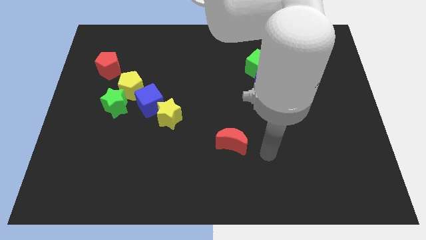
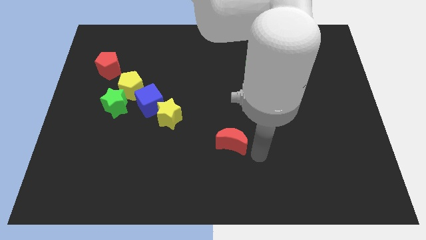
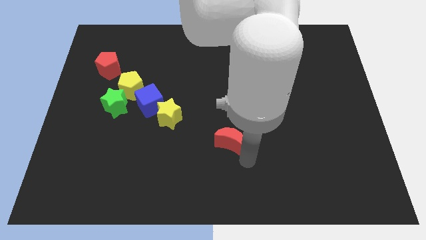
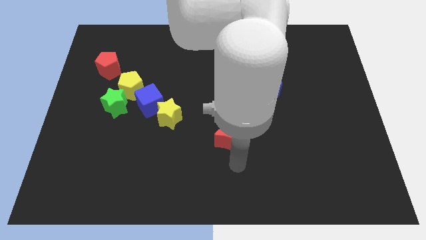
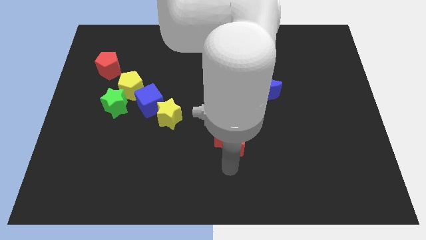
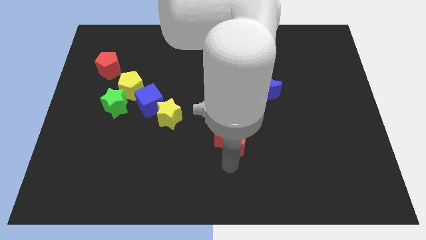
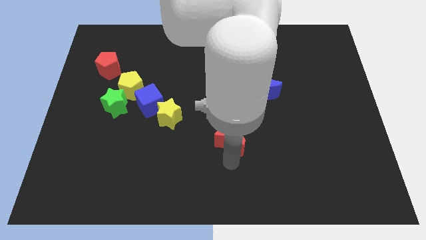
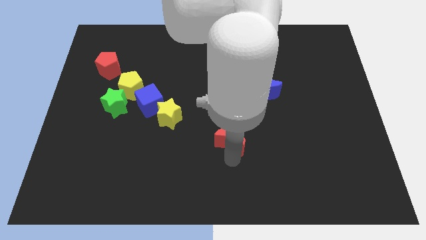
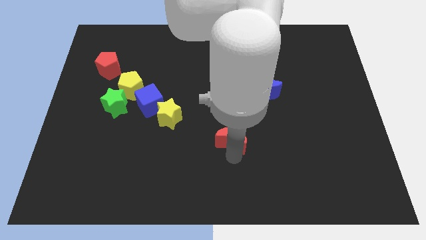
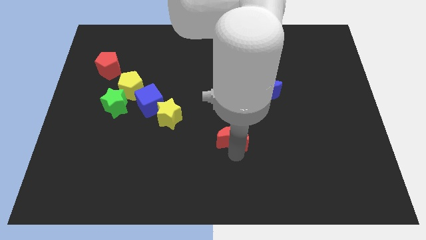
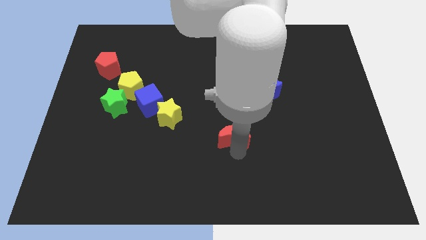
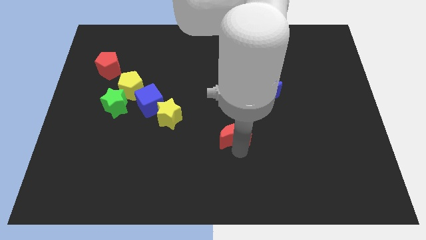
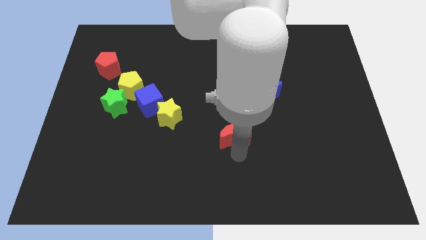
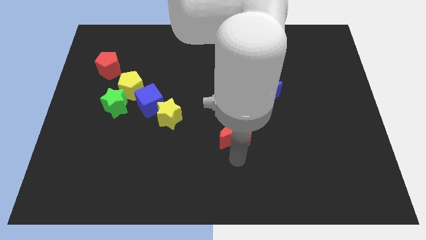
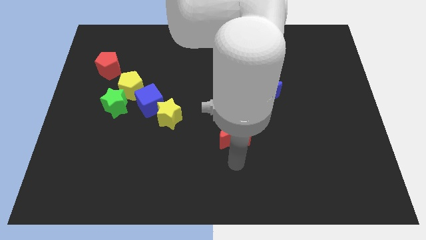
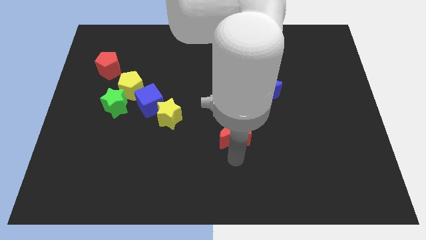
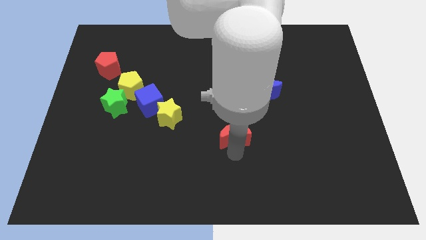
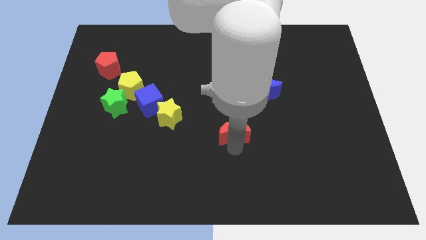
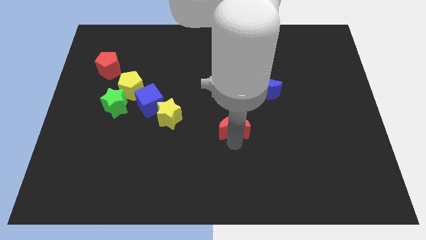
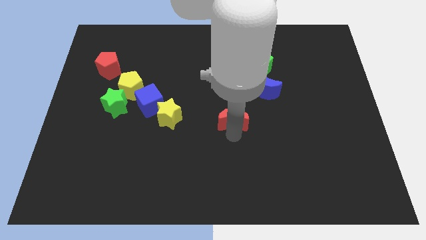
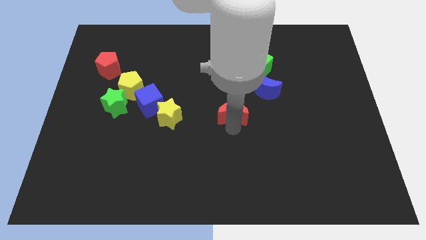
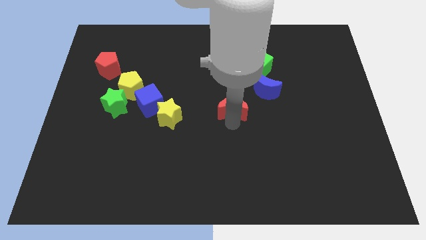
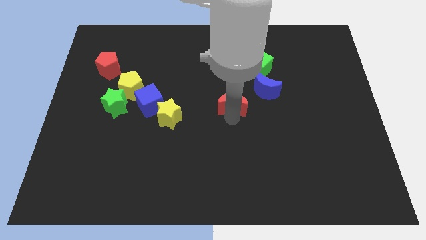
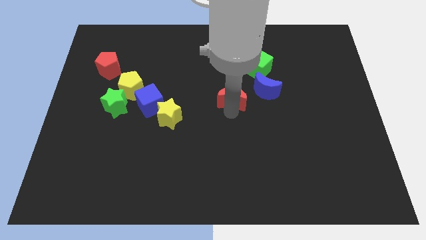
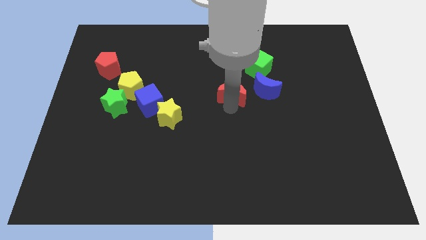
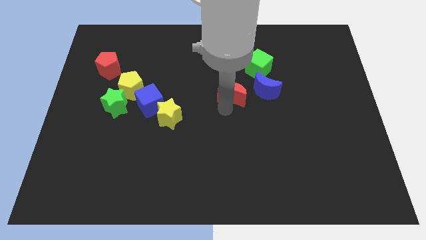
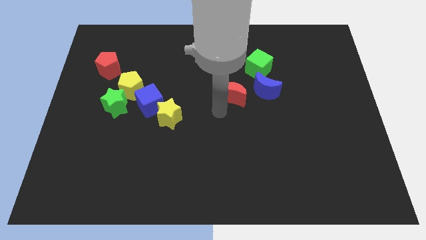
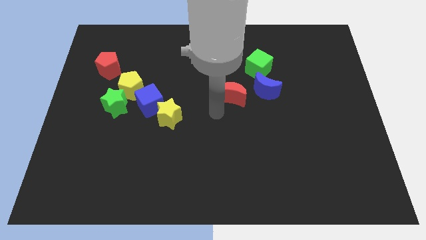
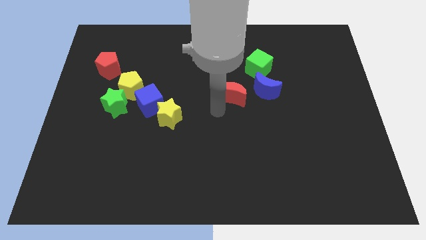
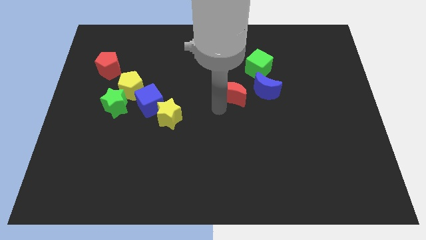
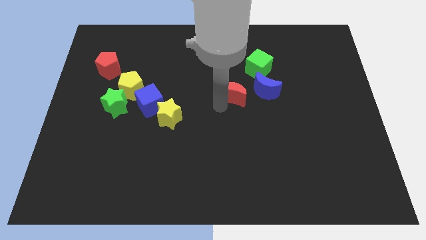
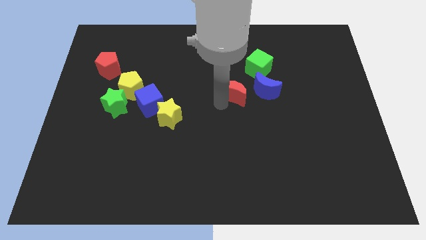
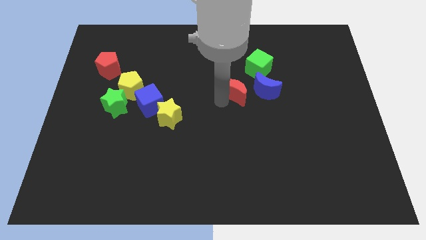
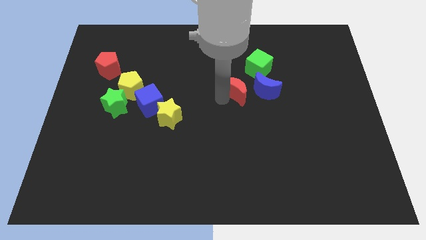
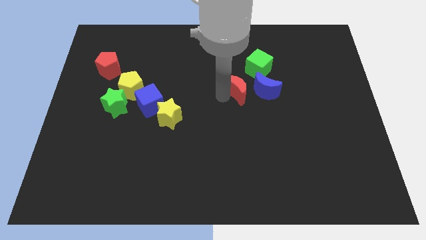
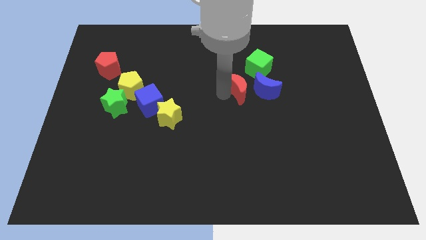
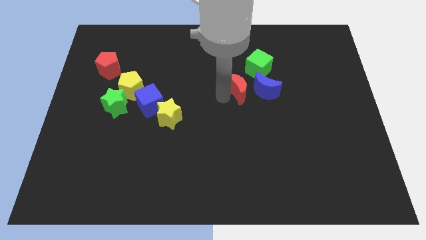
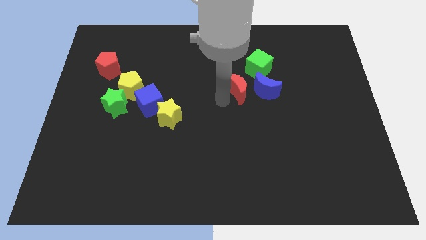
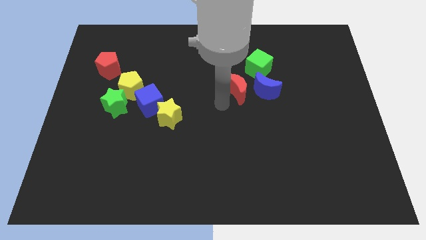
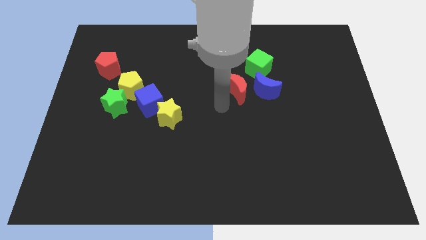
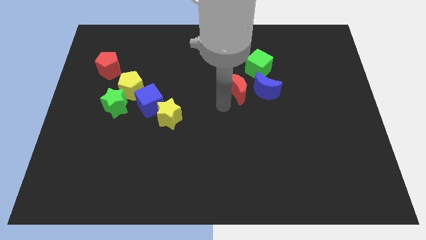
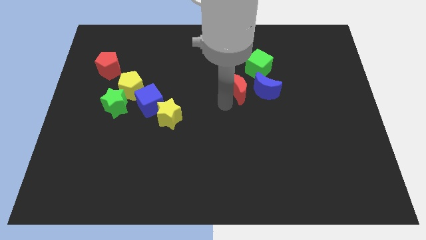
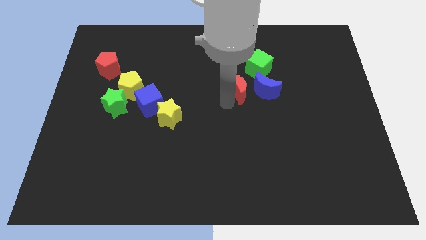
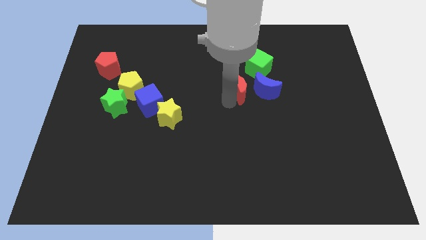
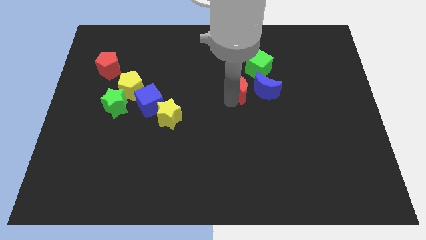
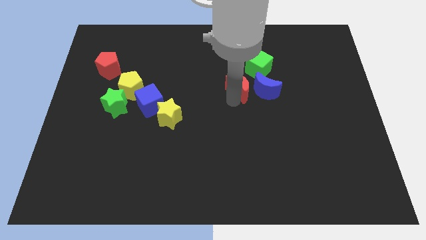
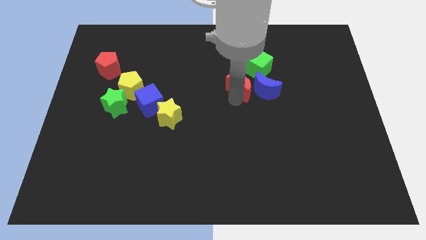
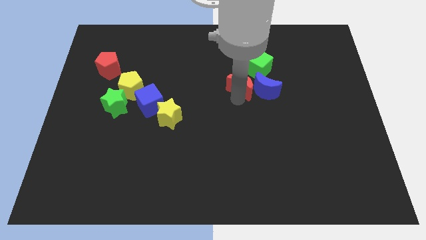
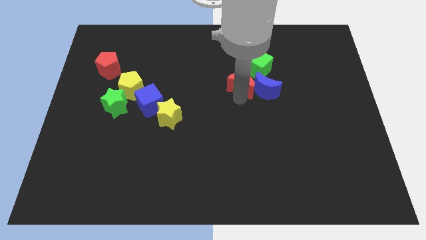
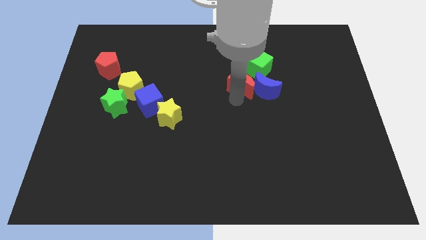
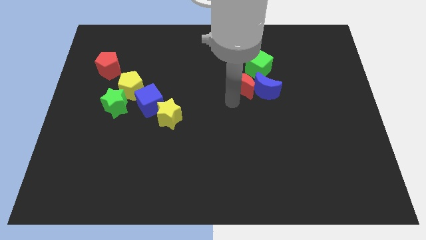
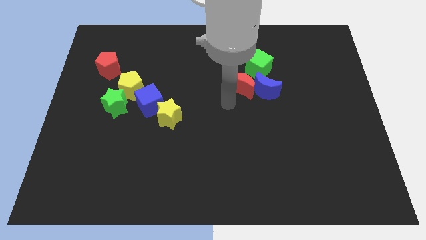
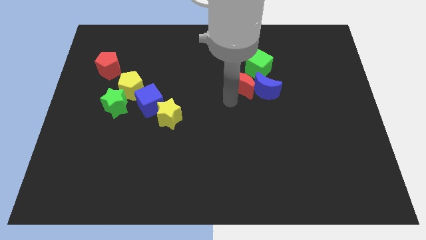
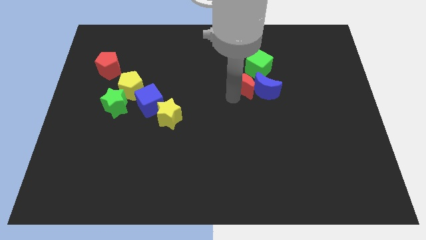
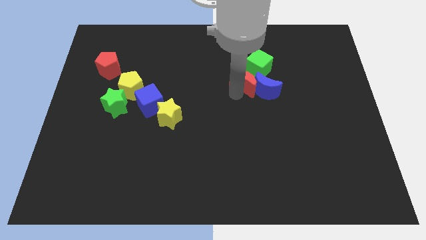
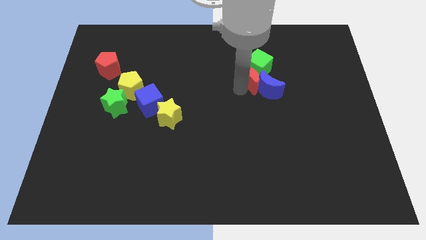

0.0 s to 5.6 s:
put the red moon next to the green cube

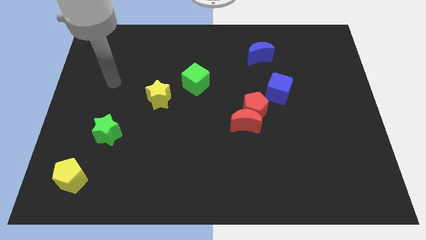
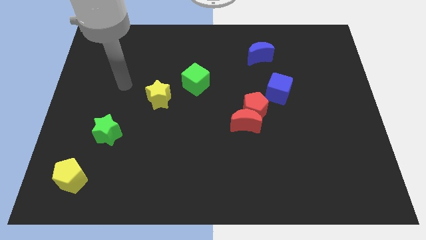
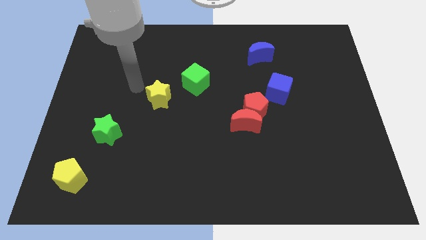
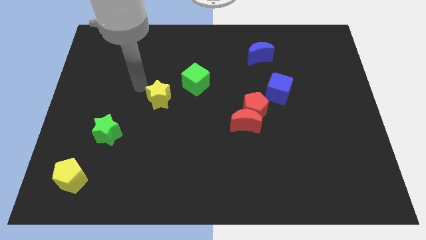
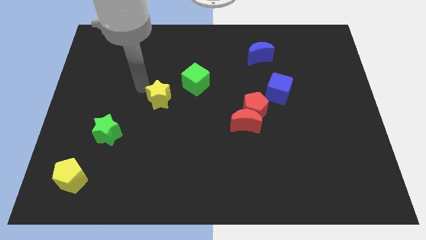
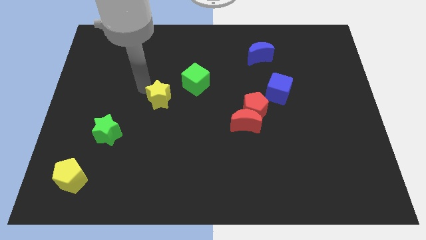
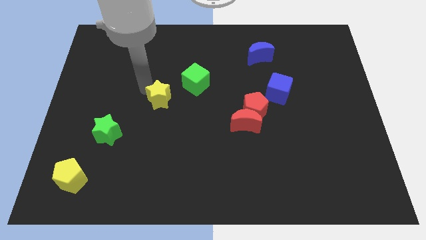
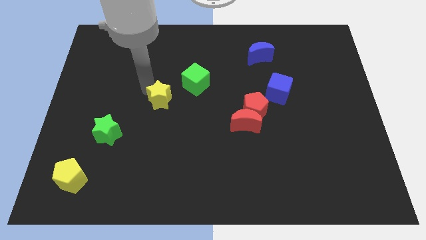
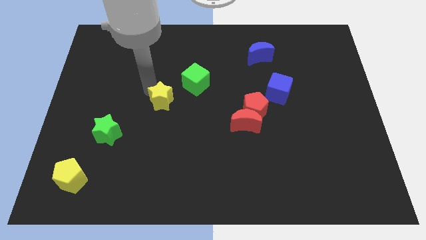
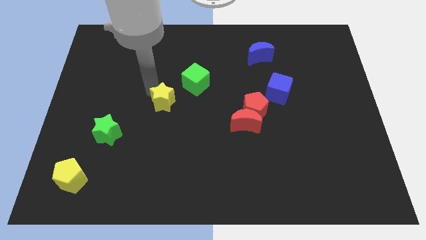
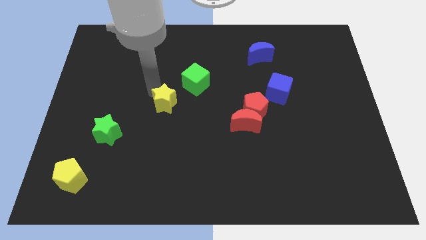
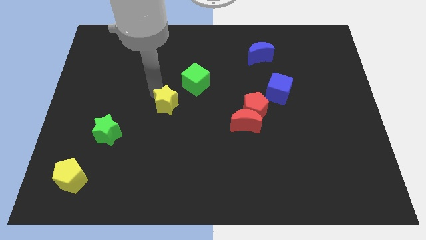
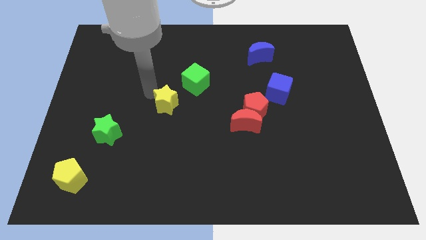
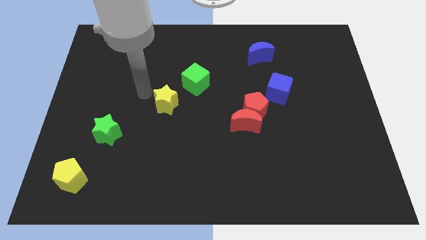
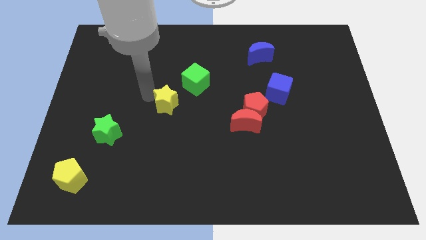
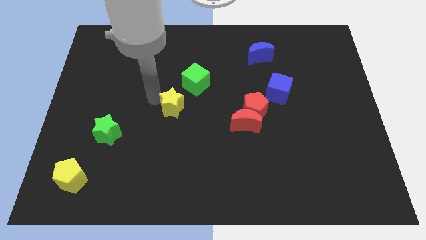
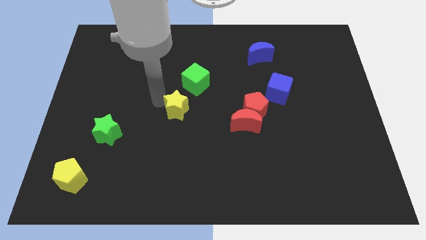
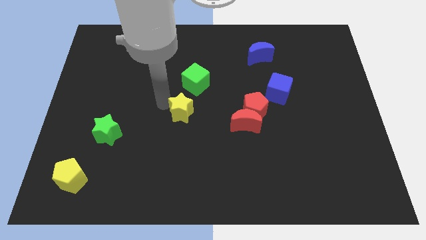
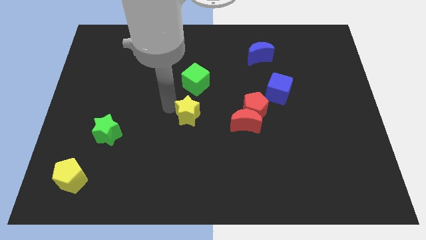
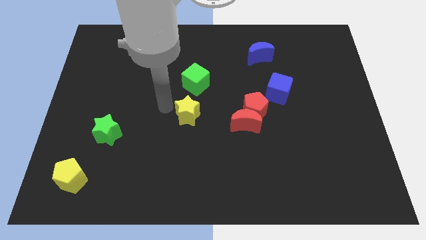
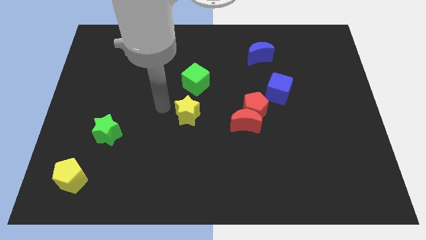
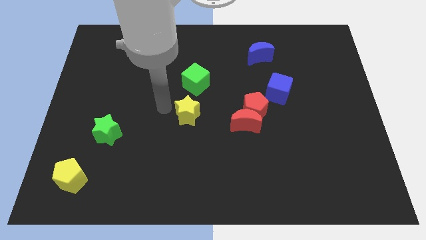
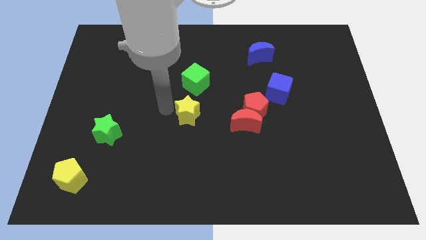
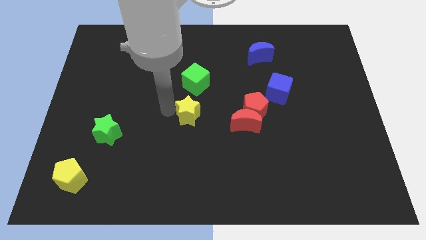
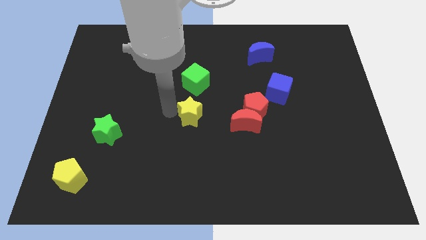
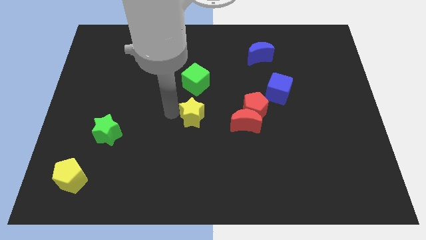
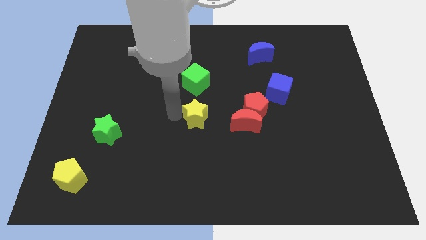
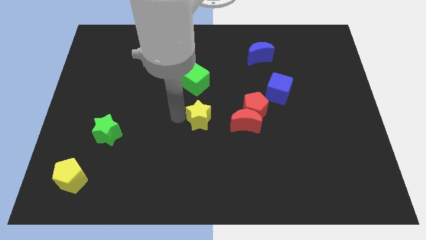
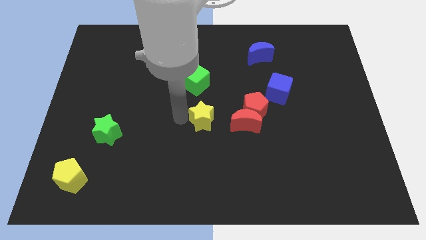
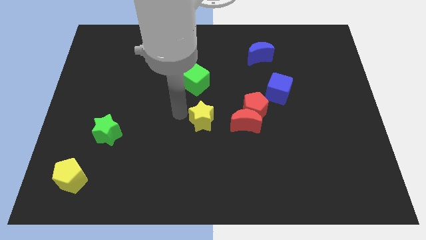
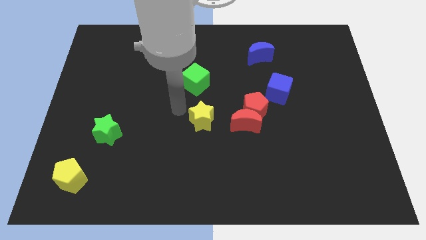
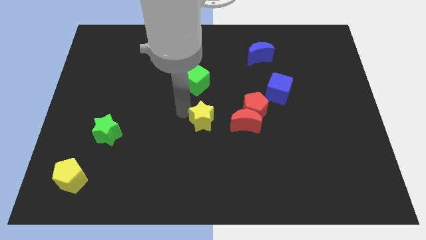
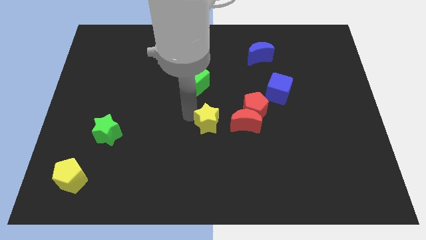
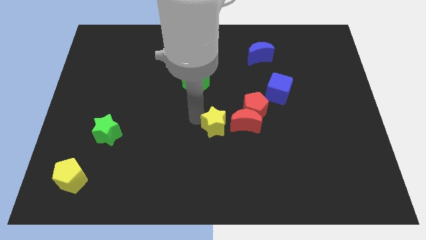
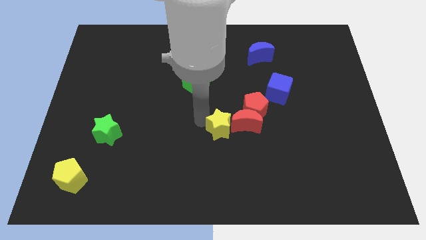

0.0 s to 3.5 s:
push the yellow star towards the red moon
